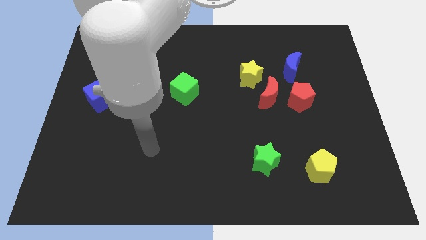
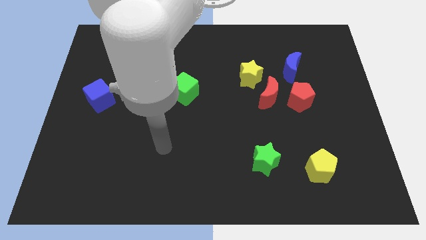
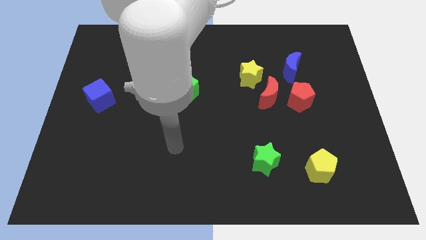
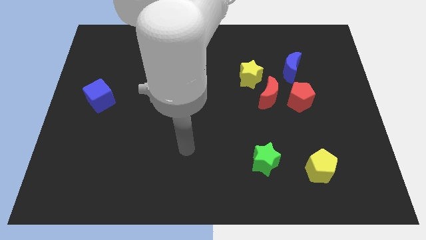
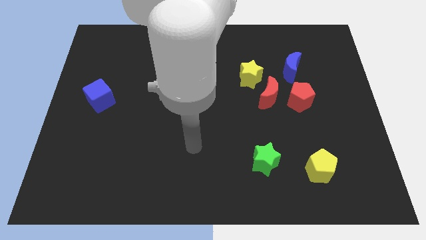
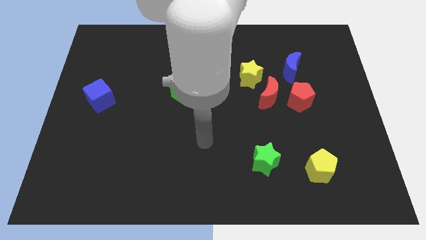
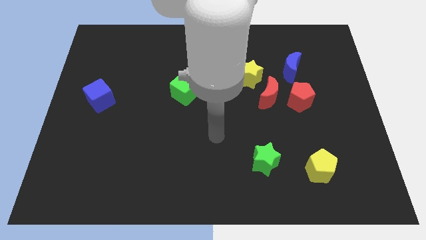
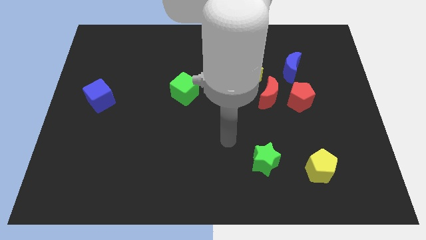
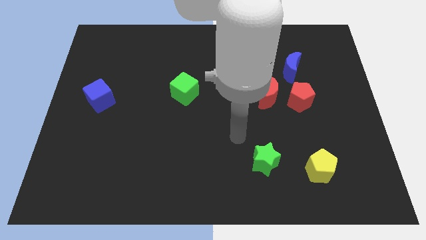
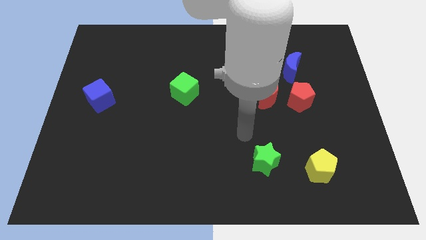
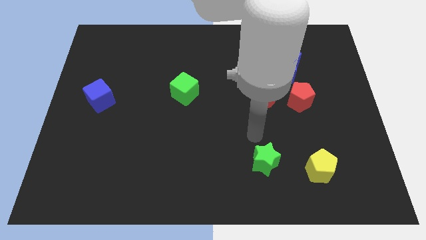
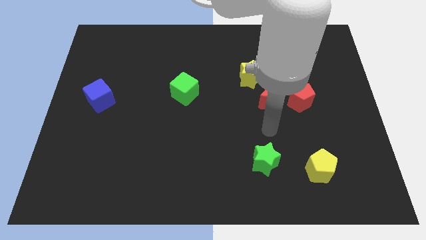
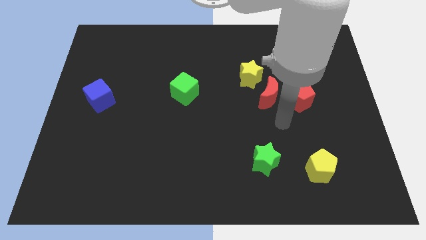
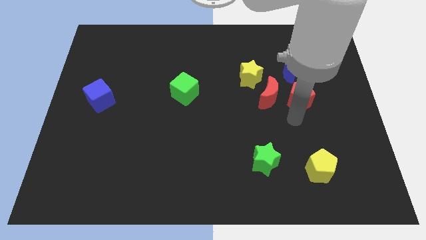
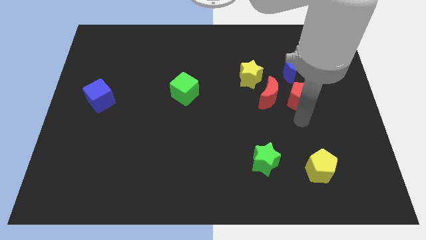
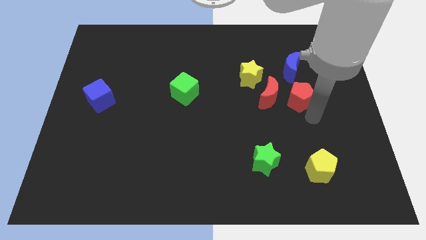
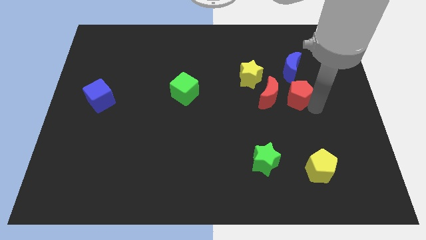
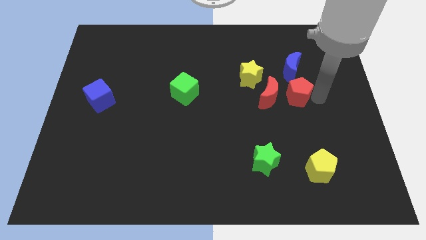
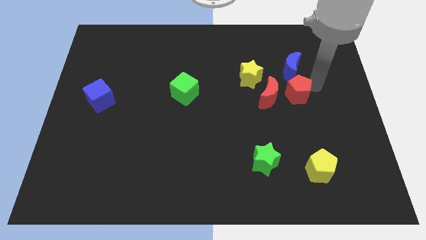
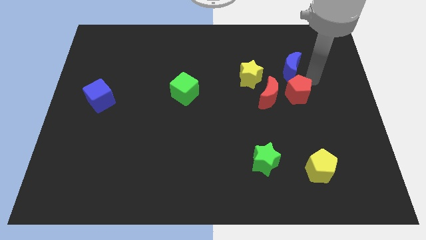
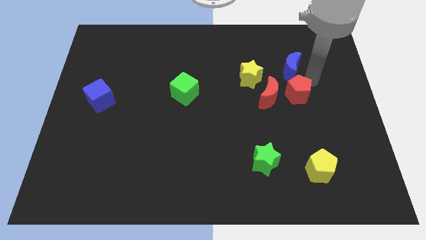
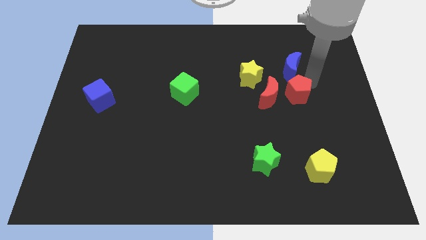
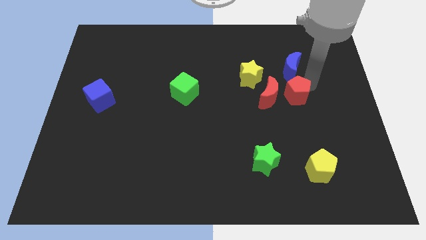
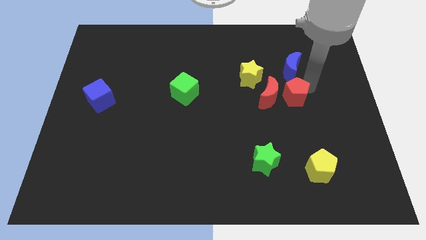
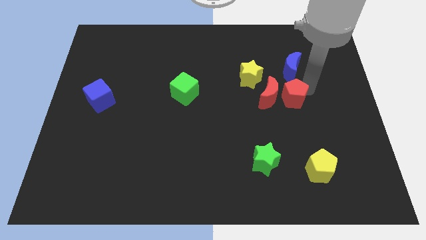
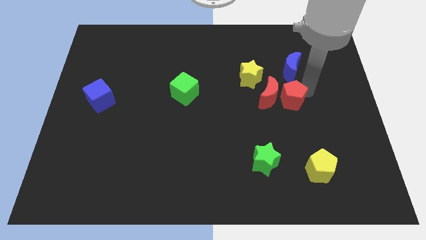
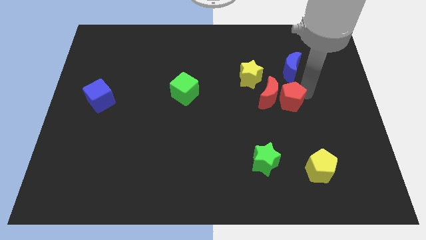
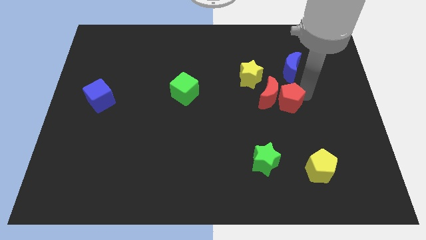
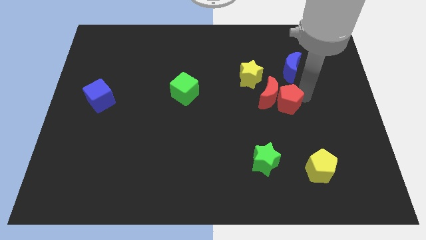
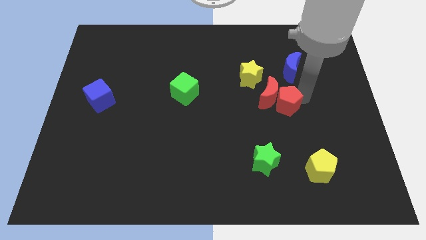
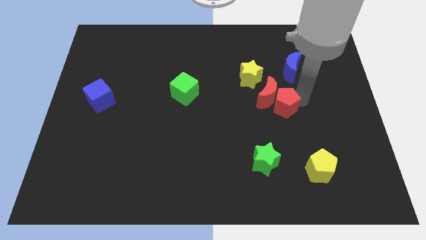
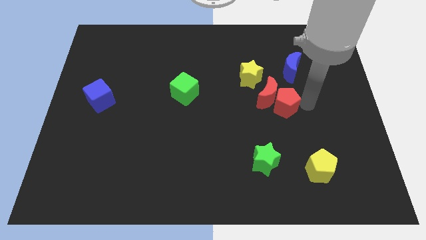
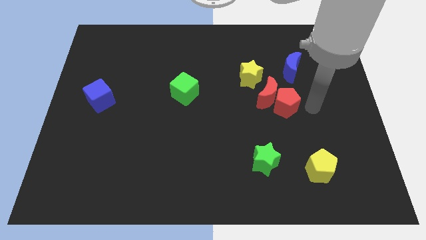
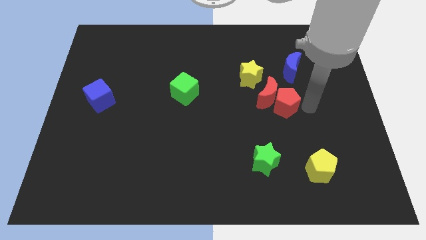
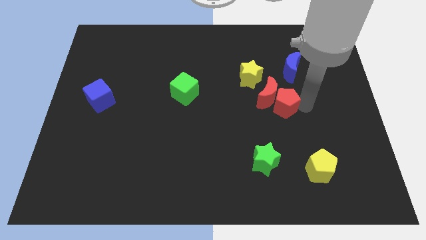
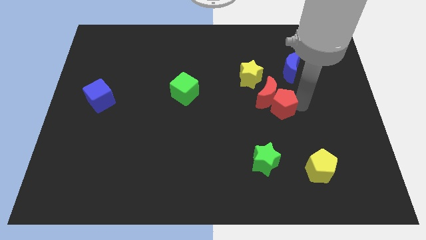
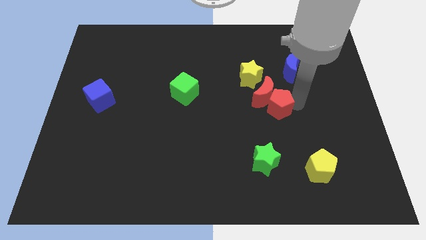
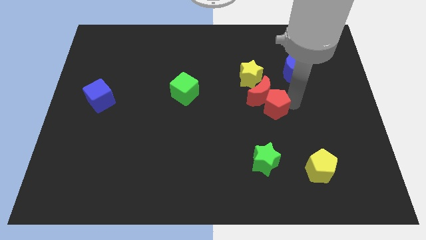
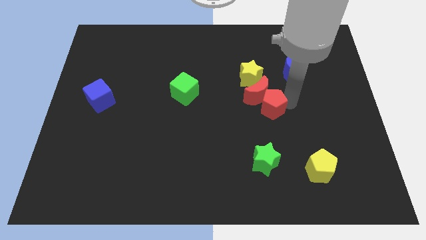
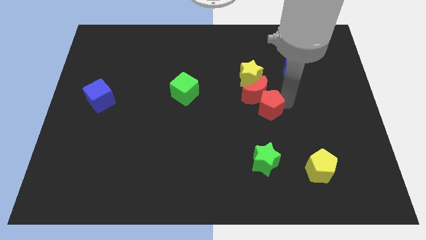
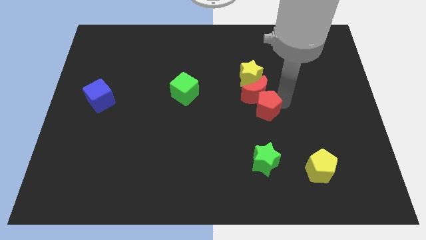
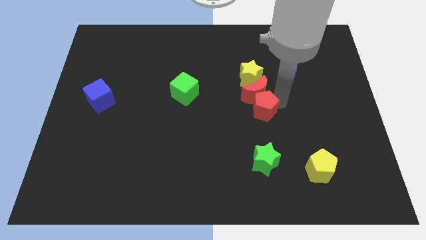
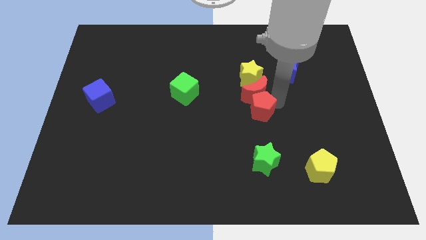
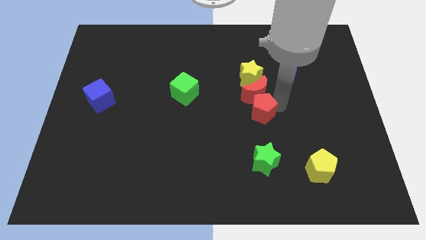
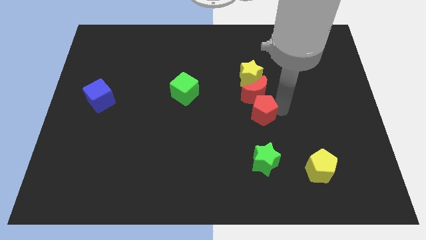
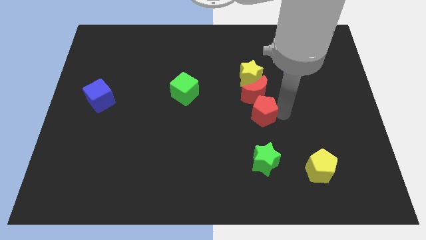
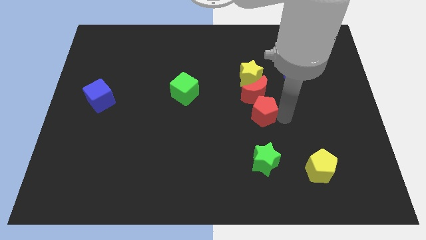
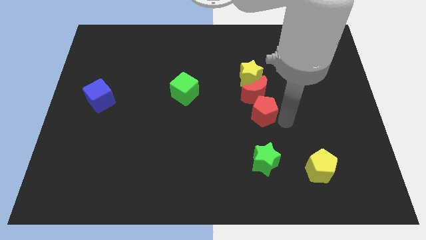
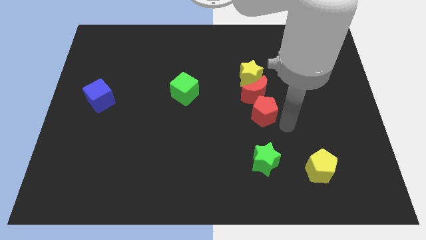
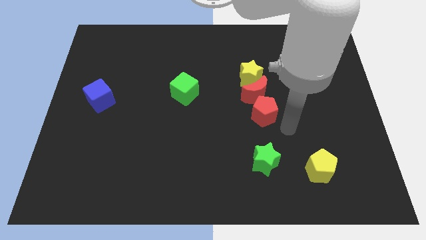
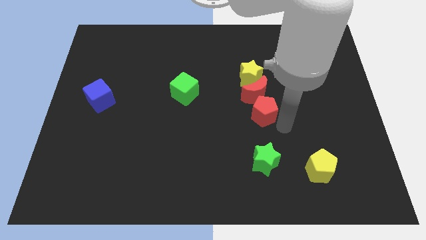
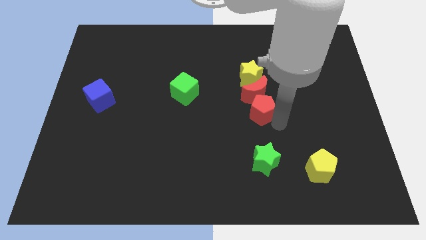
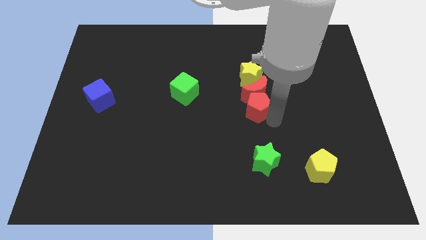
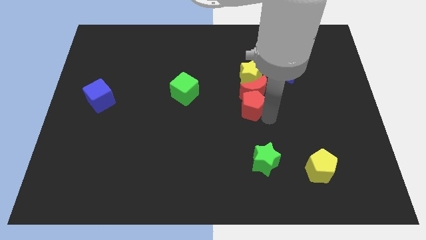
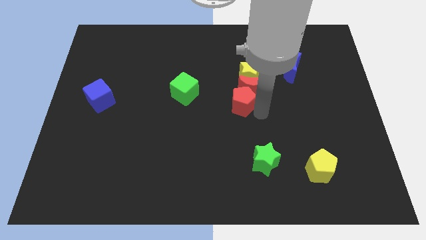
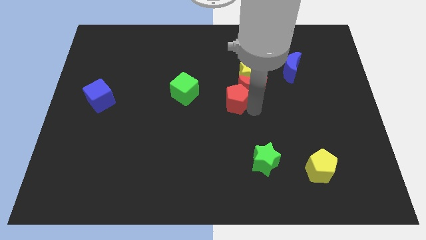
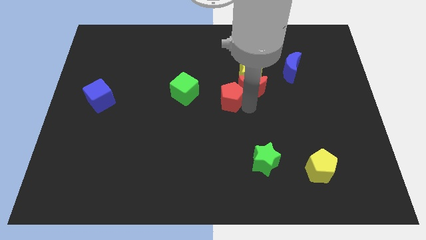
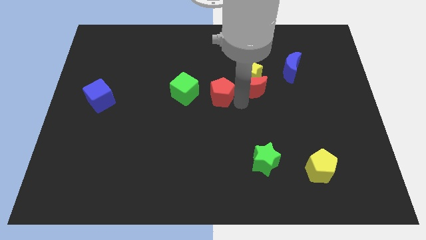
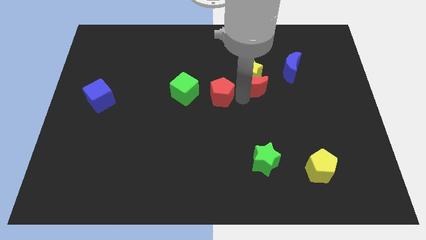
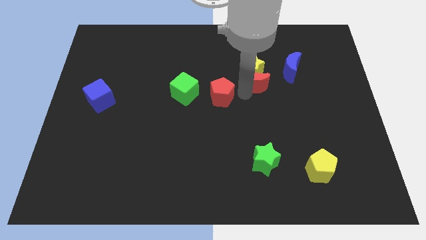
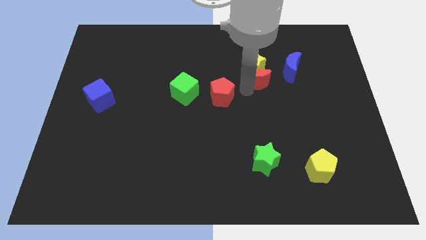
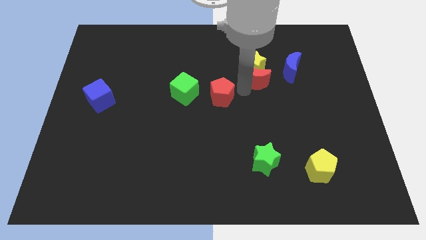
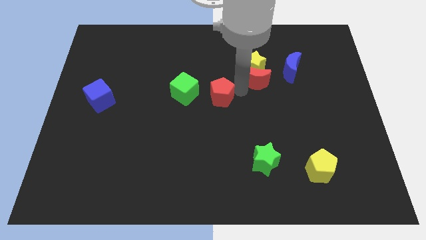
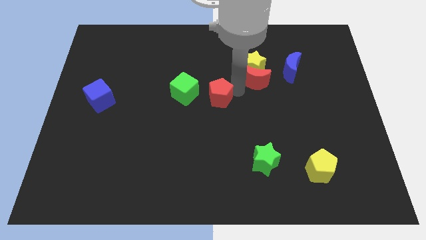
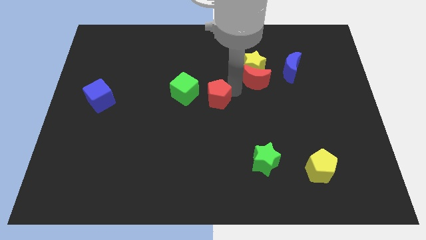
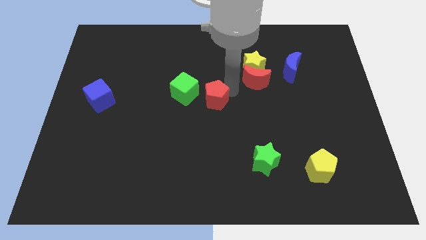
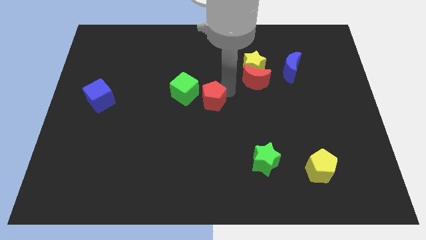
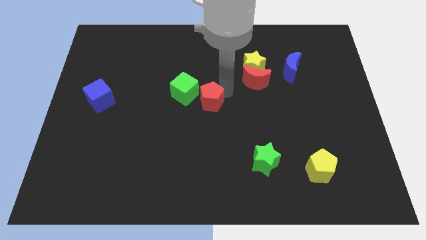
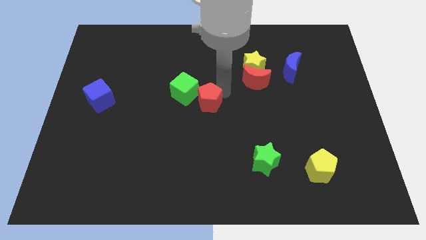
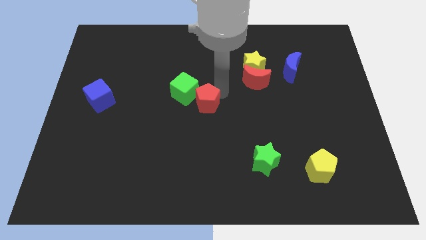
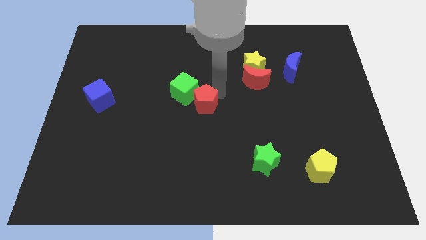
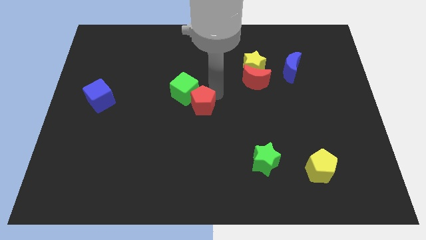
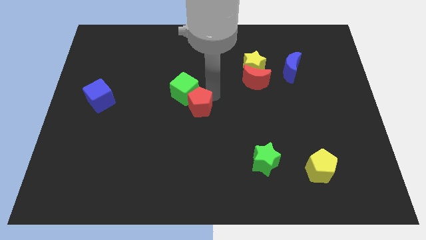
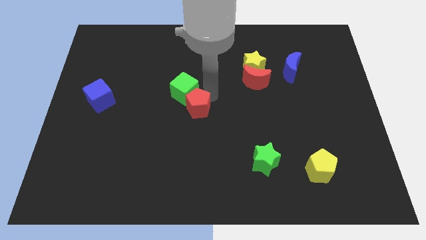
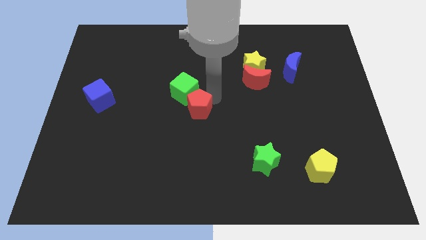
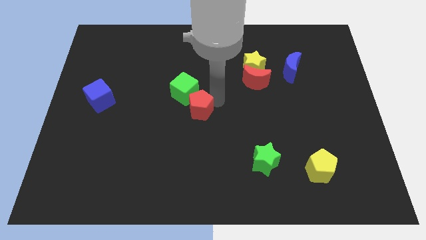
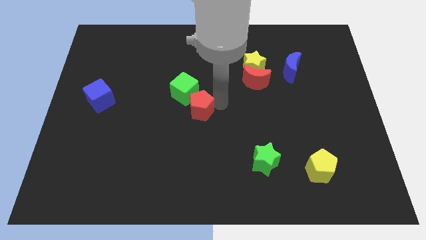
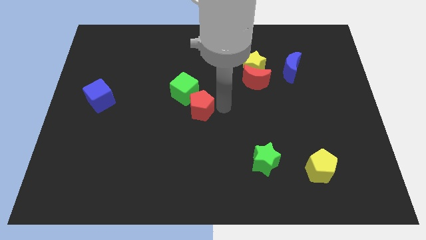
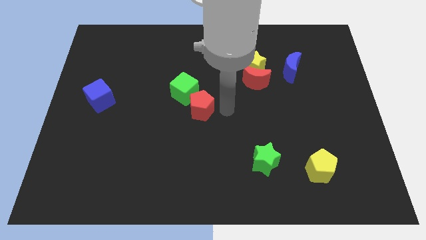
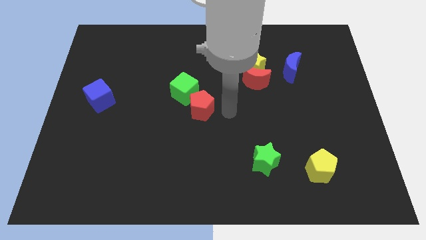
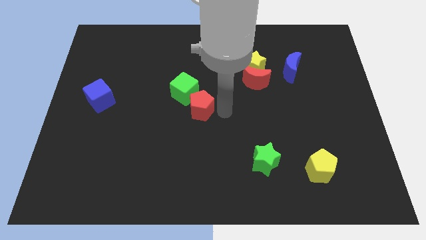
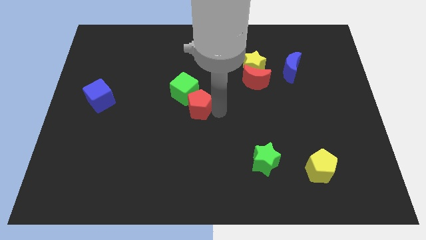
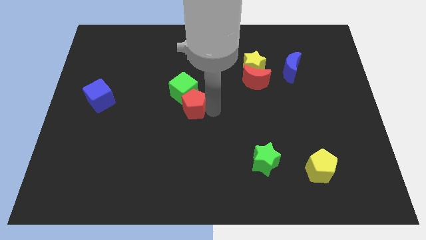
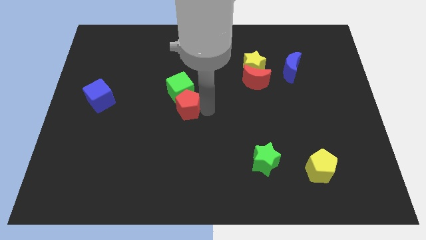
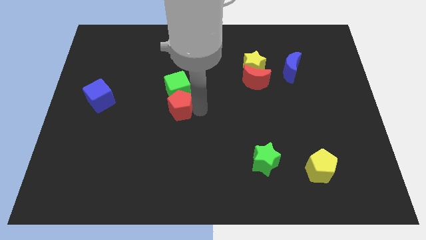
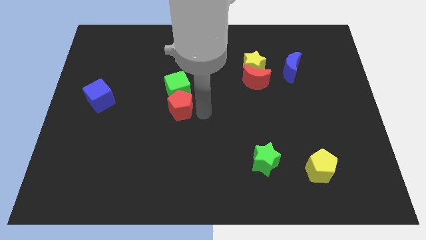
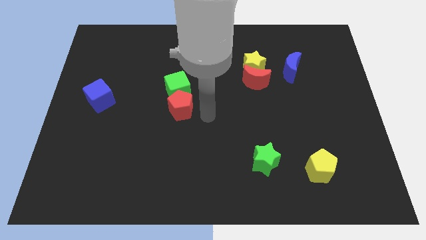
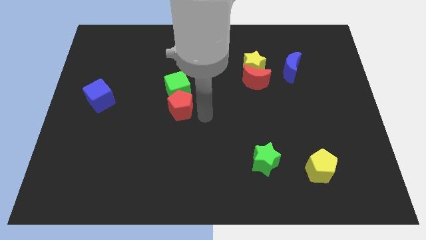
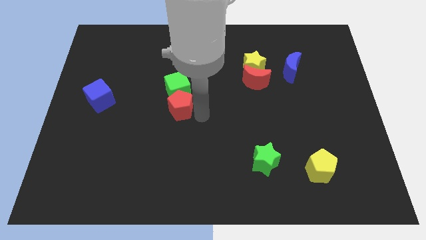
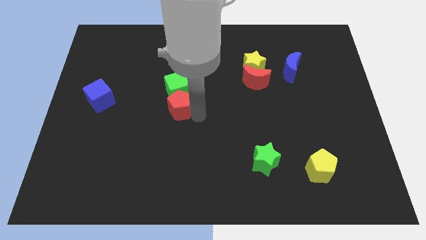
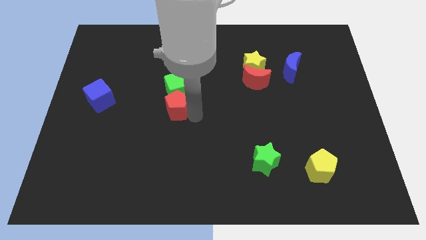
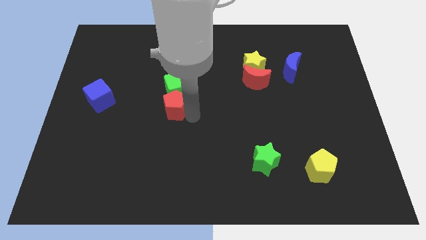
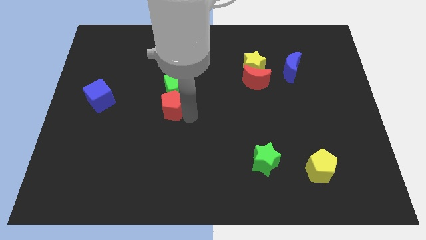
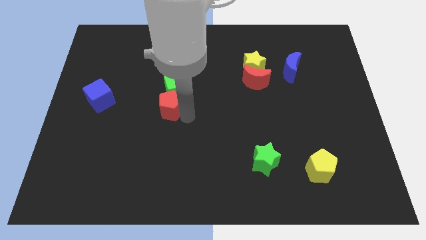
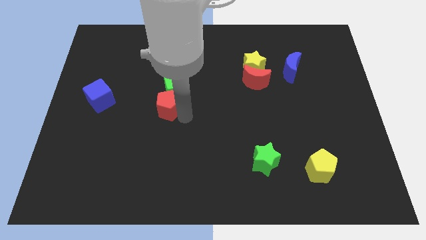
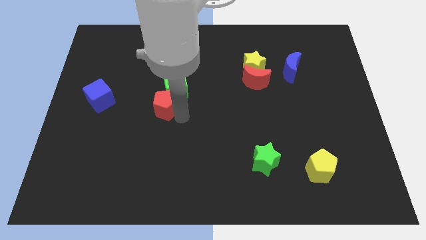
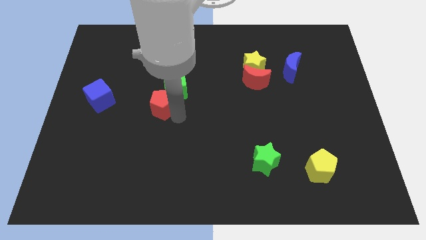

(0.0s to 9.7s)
move the red pentagon to the right of the blue cube
